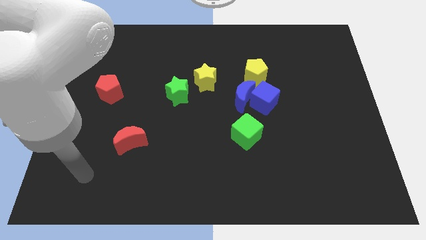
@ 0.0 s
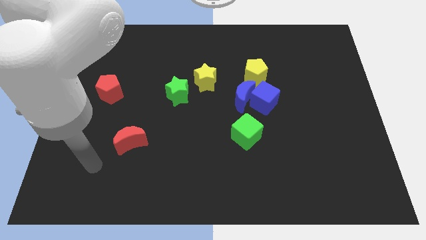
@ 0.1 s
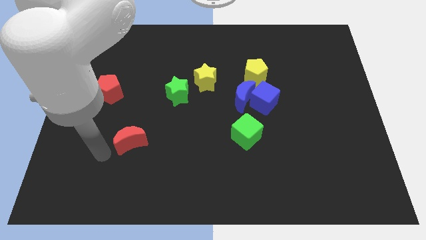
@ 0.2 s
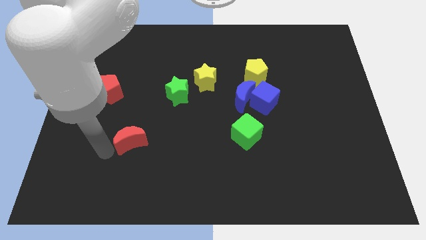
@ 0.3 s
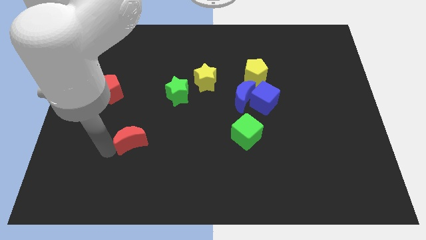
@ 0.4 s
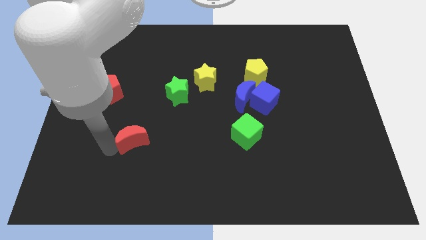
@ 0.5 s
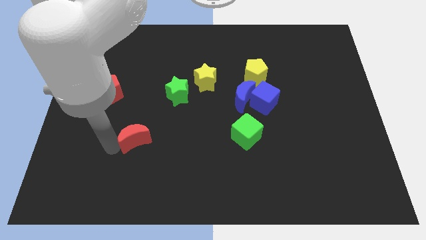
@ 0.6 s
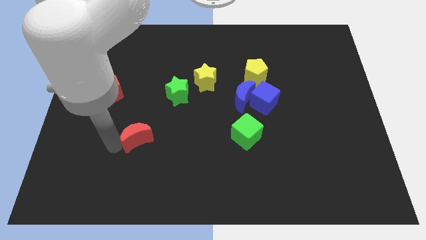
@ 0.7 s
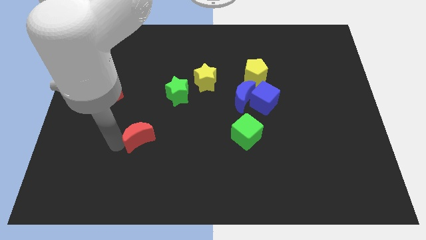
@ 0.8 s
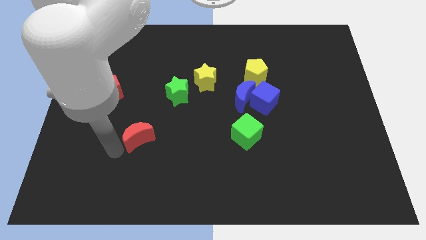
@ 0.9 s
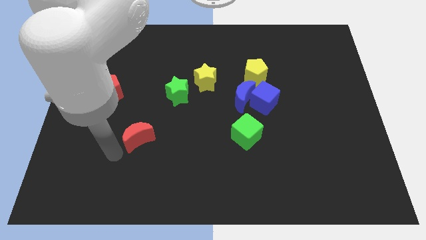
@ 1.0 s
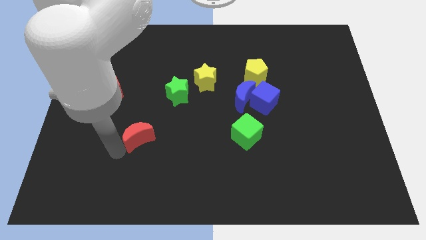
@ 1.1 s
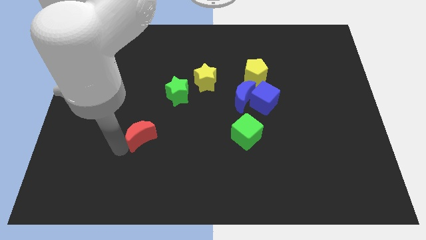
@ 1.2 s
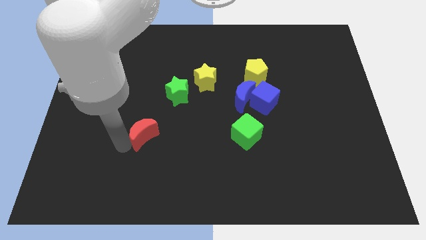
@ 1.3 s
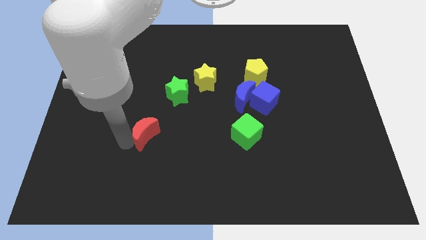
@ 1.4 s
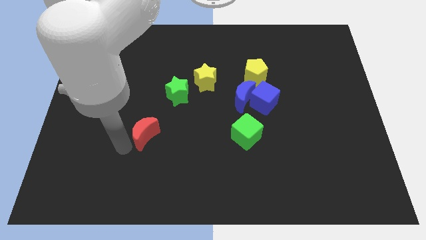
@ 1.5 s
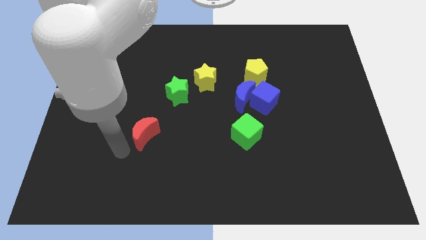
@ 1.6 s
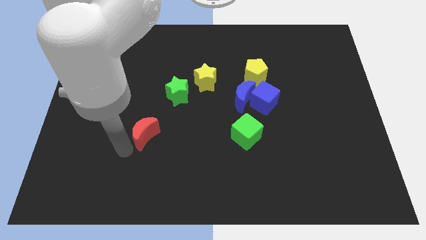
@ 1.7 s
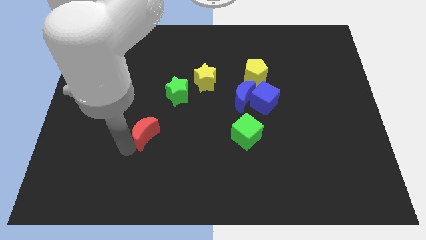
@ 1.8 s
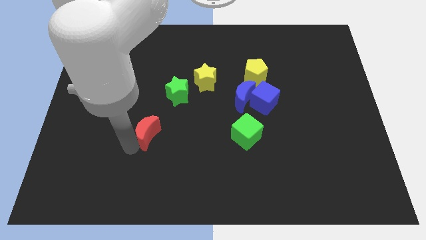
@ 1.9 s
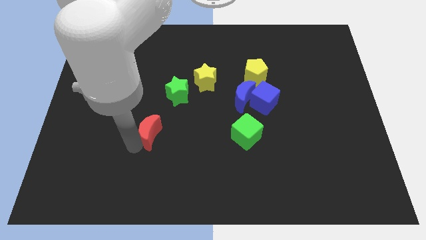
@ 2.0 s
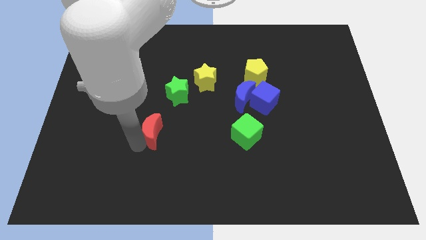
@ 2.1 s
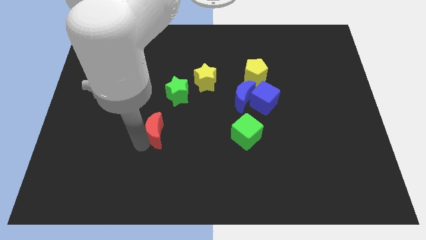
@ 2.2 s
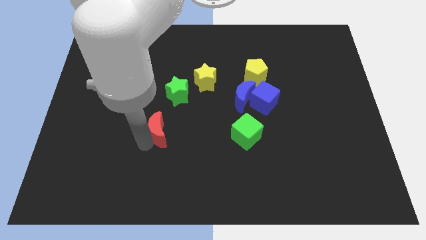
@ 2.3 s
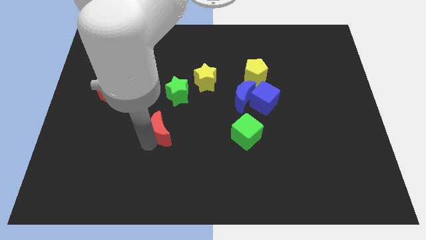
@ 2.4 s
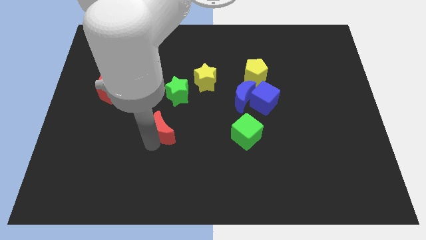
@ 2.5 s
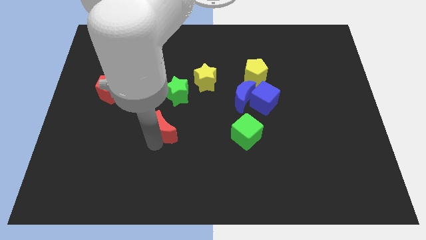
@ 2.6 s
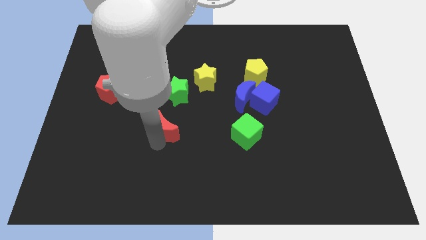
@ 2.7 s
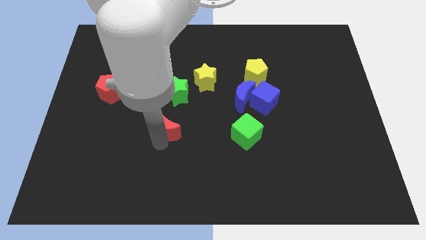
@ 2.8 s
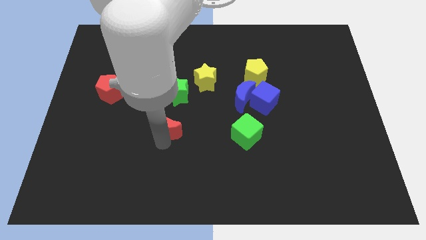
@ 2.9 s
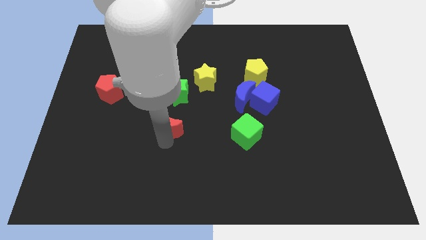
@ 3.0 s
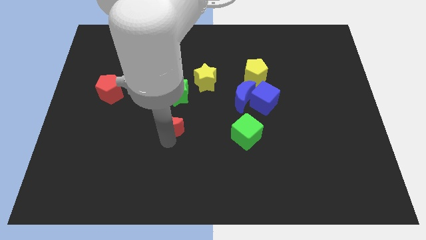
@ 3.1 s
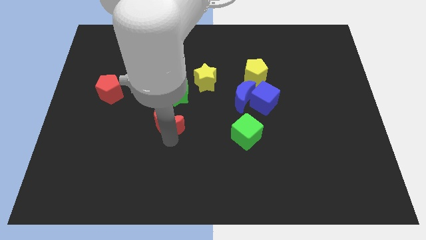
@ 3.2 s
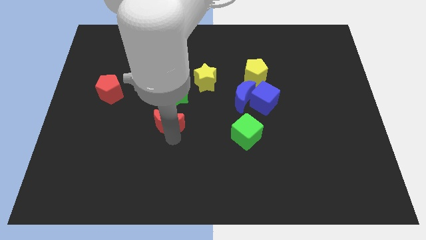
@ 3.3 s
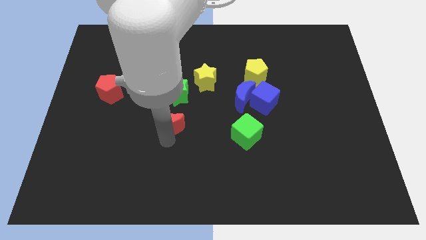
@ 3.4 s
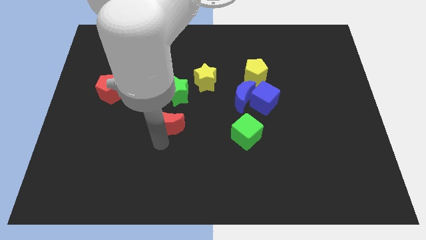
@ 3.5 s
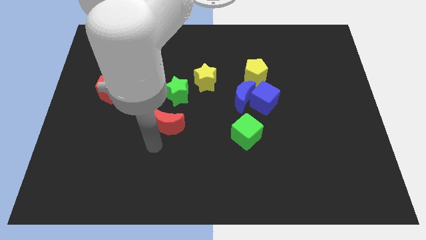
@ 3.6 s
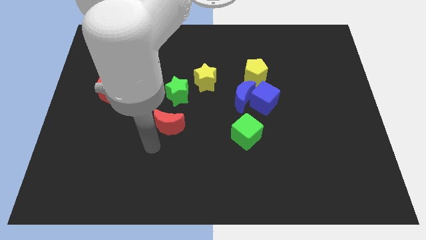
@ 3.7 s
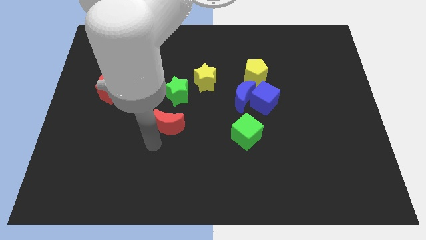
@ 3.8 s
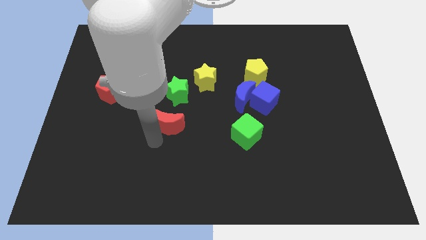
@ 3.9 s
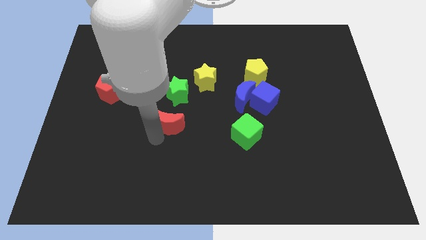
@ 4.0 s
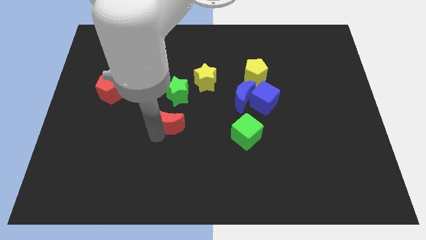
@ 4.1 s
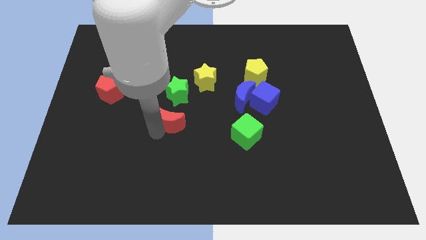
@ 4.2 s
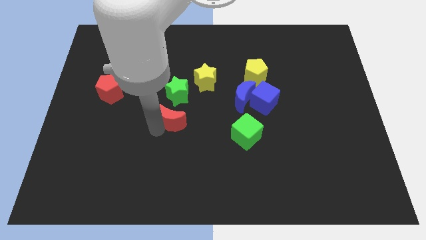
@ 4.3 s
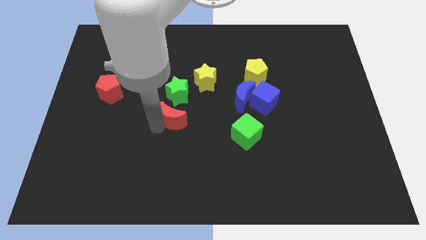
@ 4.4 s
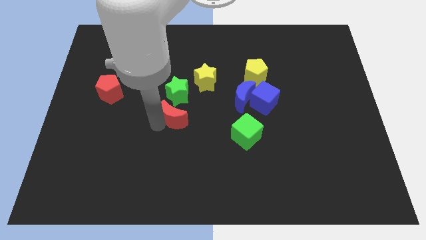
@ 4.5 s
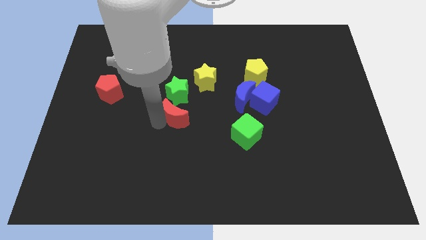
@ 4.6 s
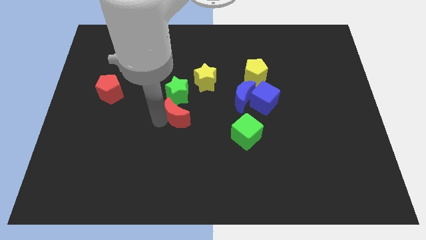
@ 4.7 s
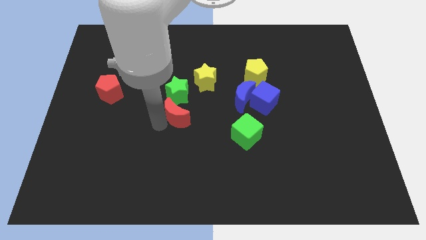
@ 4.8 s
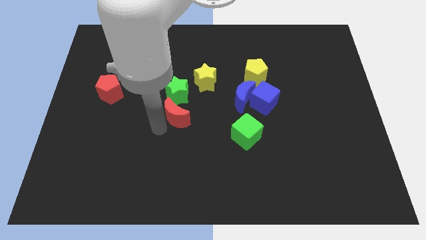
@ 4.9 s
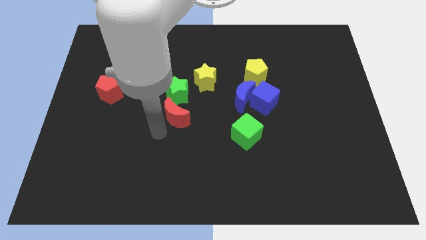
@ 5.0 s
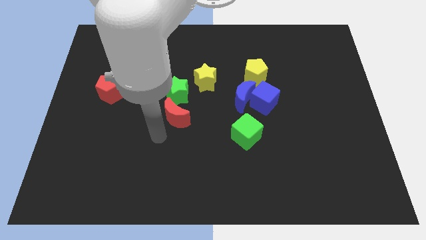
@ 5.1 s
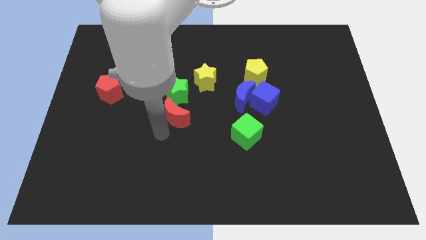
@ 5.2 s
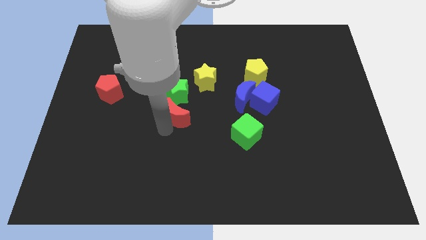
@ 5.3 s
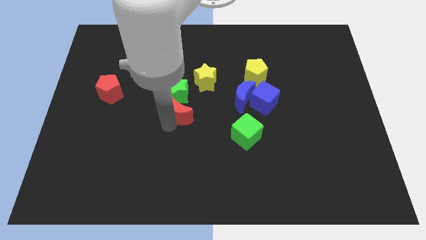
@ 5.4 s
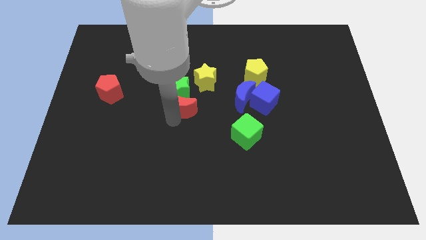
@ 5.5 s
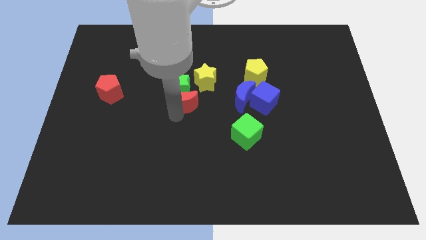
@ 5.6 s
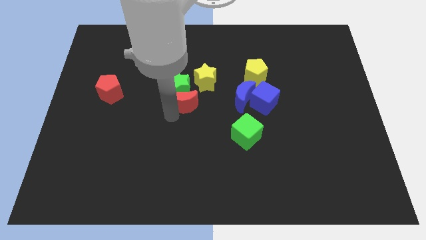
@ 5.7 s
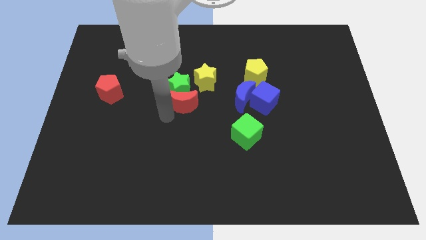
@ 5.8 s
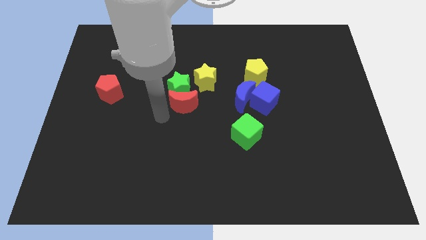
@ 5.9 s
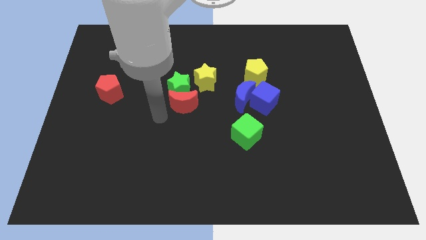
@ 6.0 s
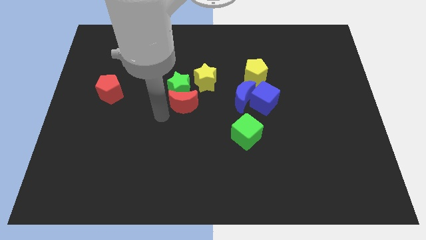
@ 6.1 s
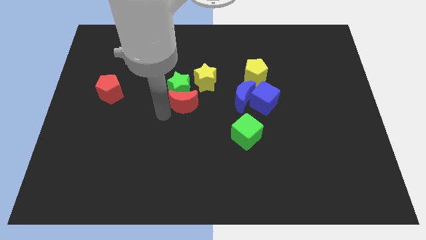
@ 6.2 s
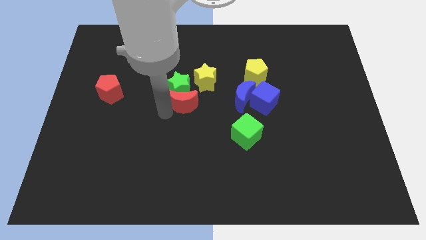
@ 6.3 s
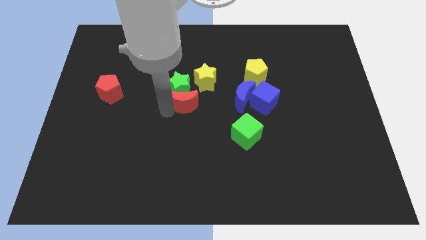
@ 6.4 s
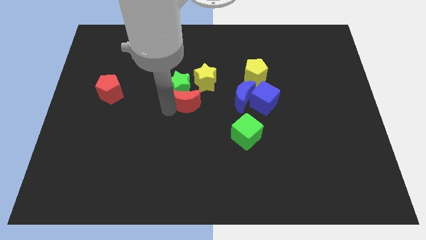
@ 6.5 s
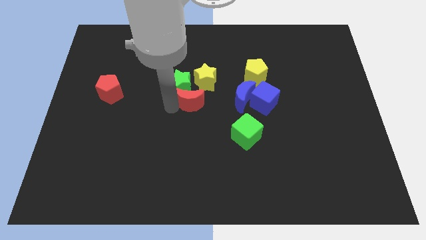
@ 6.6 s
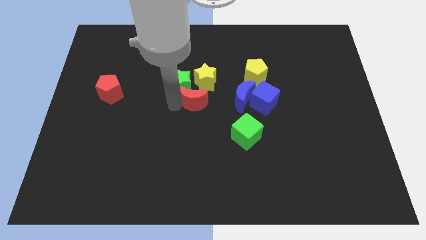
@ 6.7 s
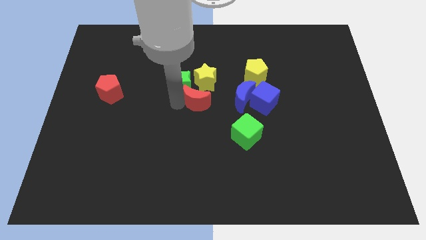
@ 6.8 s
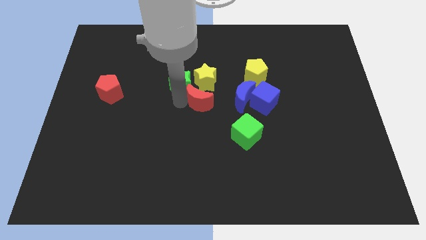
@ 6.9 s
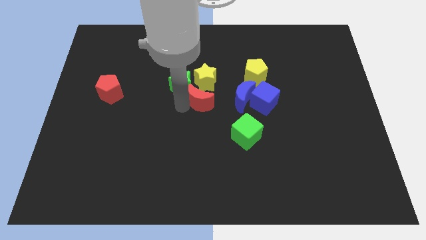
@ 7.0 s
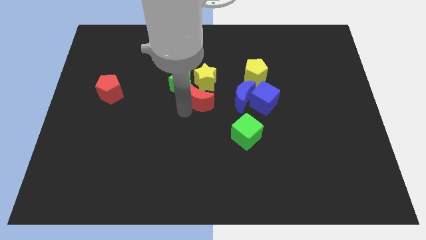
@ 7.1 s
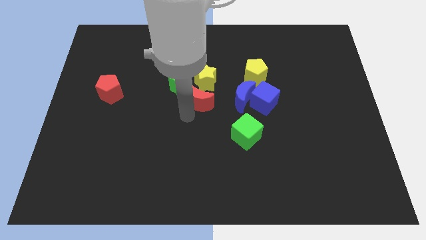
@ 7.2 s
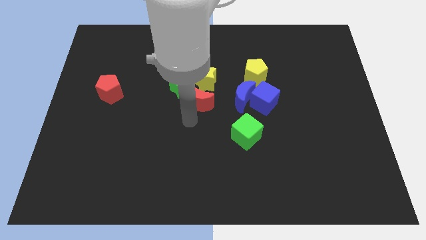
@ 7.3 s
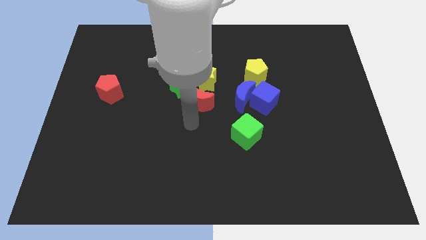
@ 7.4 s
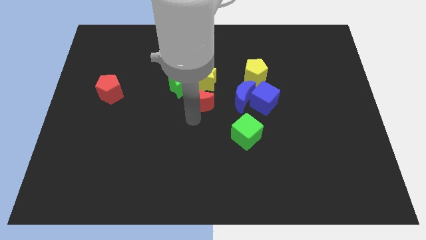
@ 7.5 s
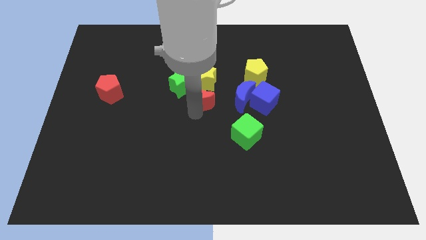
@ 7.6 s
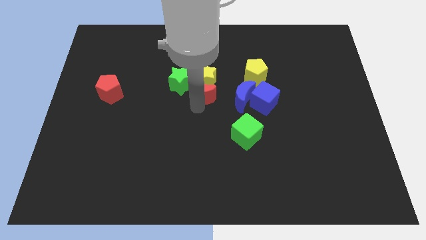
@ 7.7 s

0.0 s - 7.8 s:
push the red moon next to the yellow star

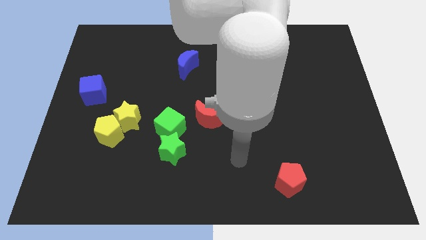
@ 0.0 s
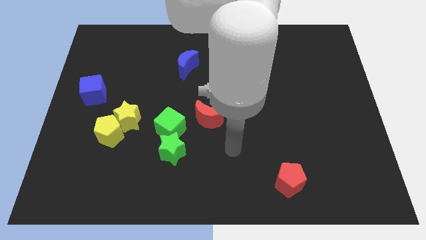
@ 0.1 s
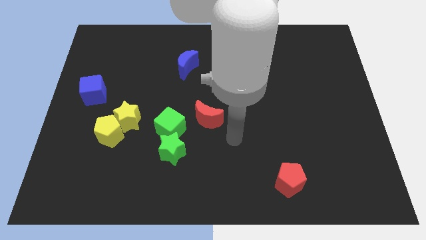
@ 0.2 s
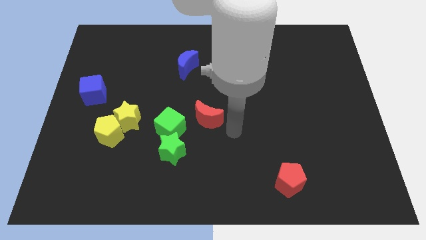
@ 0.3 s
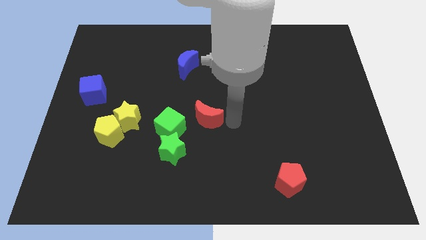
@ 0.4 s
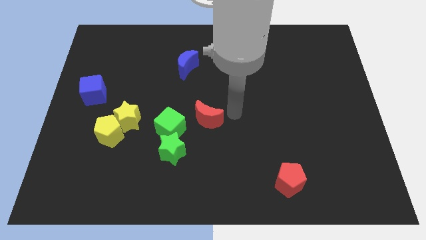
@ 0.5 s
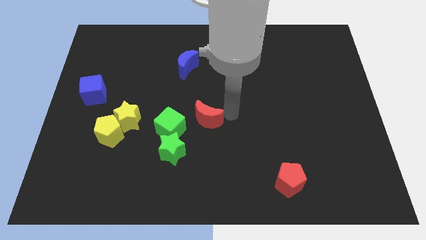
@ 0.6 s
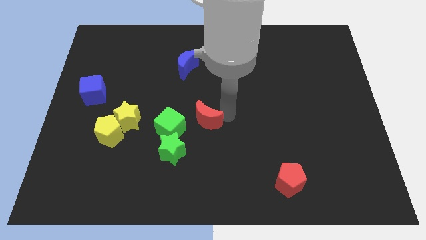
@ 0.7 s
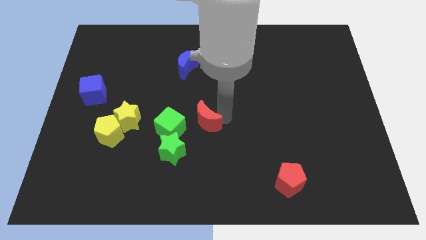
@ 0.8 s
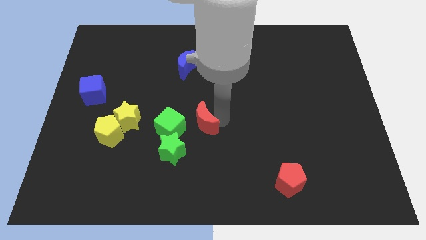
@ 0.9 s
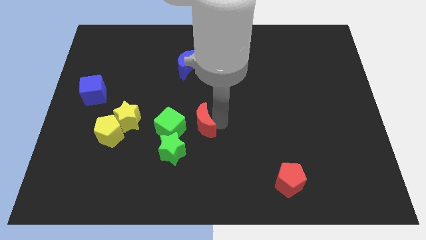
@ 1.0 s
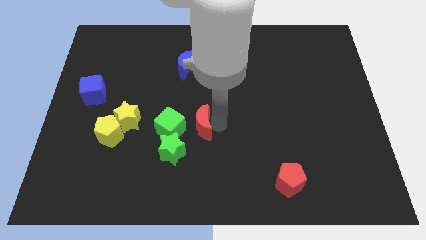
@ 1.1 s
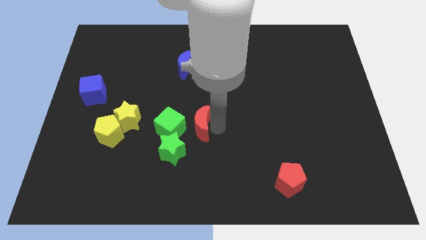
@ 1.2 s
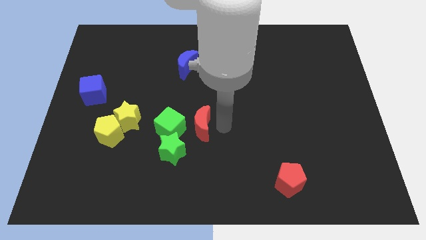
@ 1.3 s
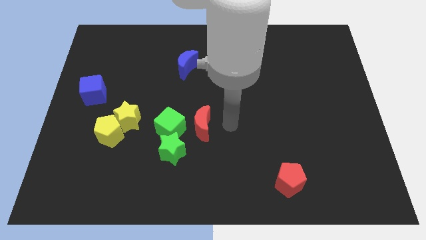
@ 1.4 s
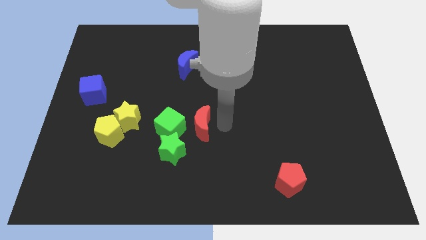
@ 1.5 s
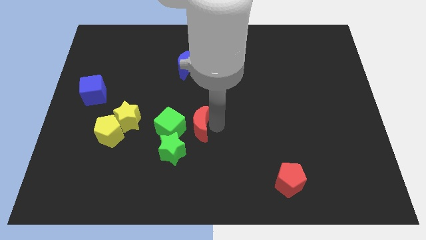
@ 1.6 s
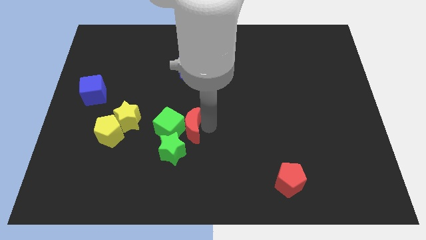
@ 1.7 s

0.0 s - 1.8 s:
put the red moon towards the green cube
